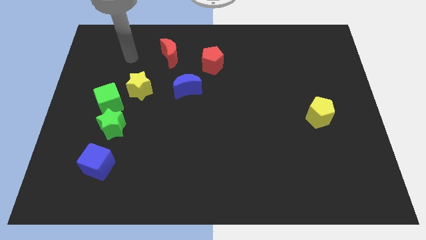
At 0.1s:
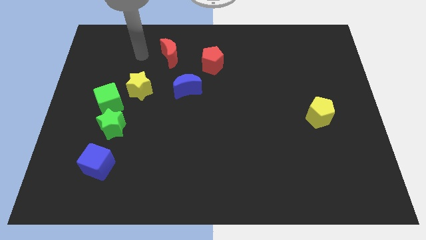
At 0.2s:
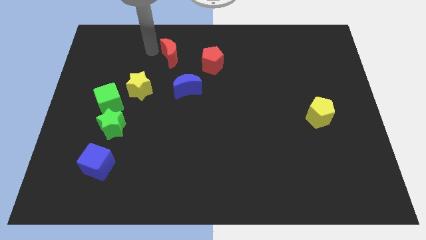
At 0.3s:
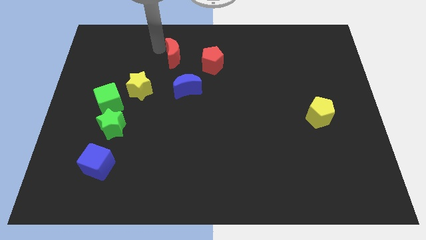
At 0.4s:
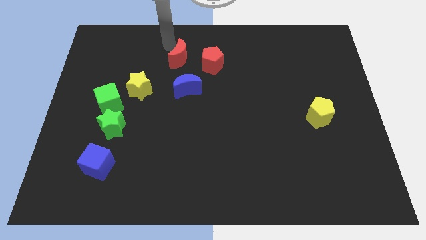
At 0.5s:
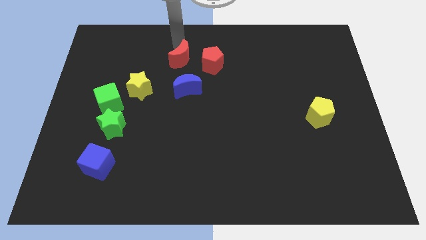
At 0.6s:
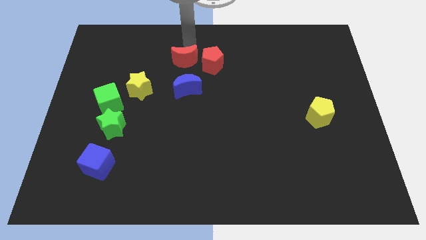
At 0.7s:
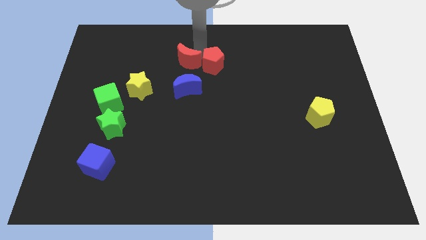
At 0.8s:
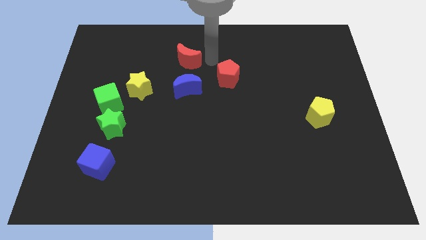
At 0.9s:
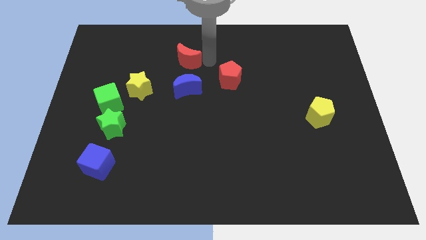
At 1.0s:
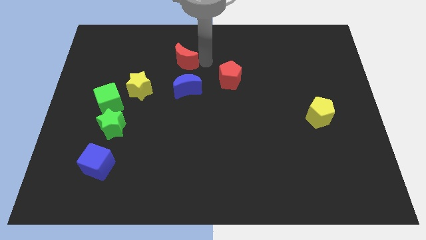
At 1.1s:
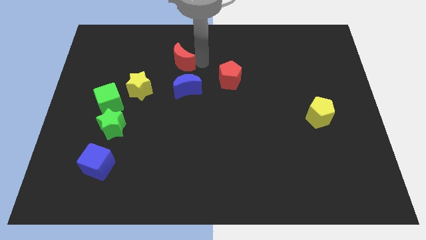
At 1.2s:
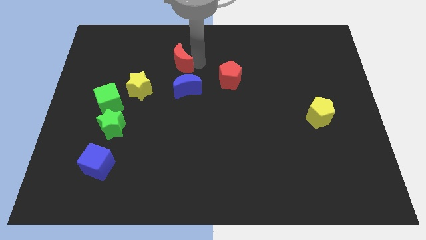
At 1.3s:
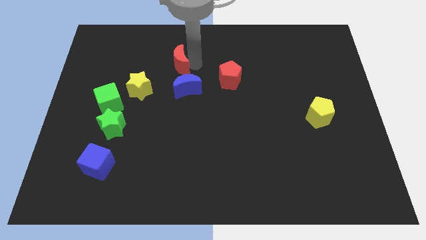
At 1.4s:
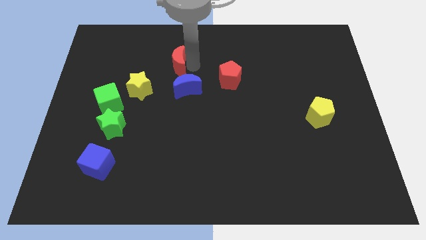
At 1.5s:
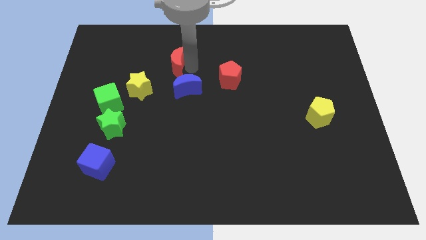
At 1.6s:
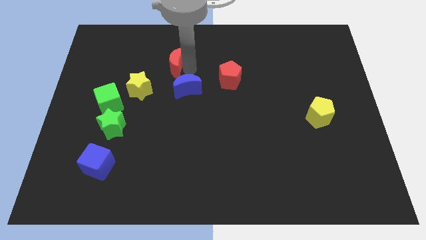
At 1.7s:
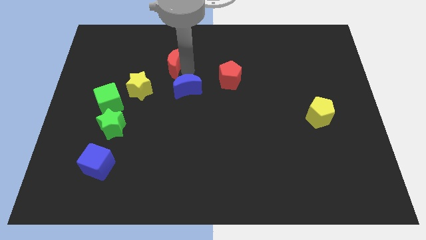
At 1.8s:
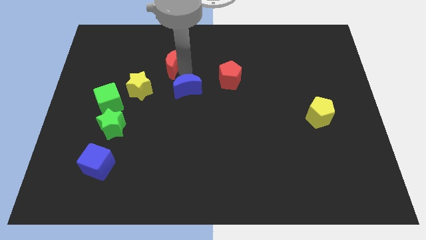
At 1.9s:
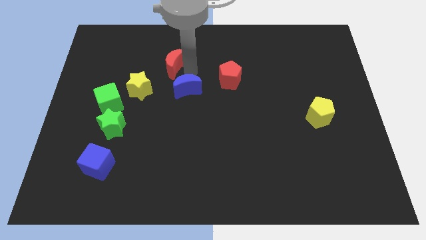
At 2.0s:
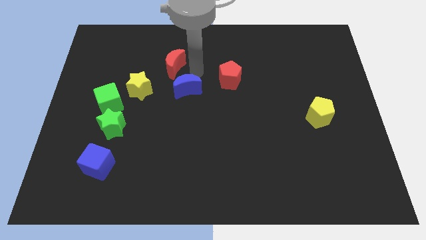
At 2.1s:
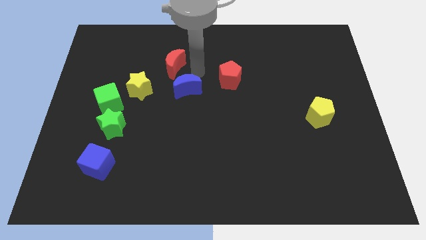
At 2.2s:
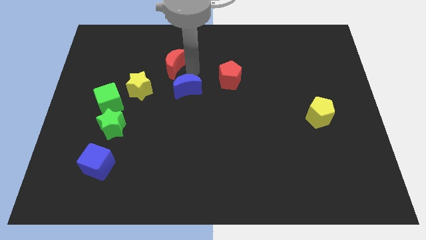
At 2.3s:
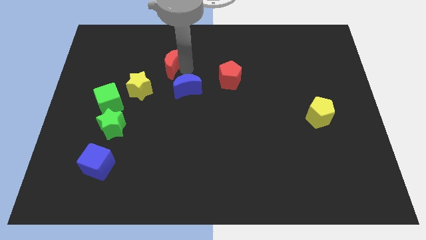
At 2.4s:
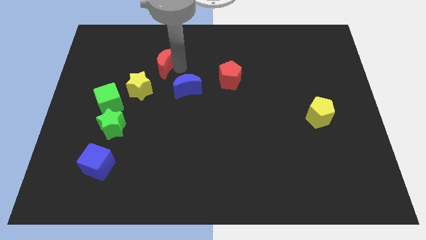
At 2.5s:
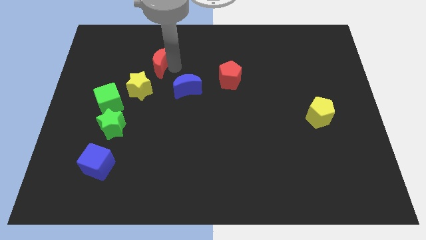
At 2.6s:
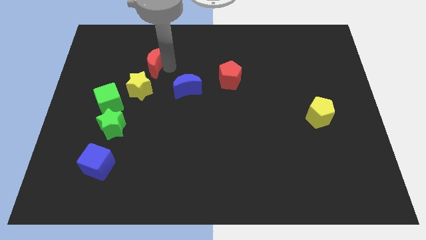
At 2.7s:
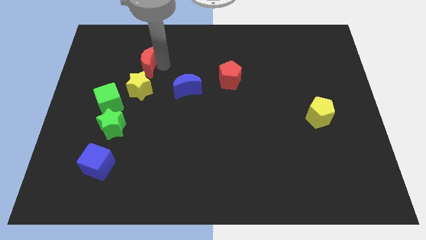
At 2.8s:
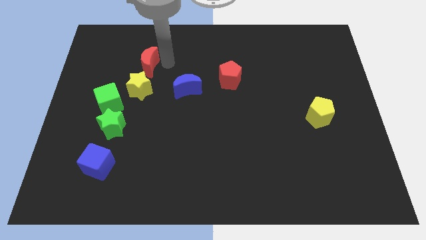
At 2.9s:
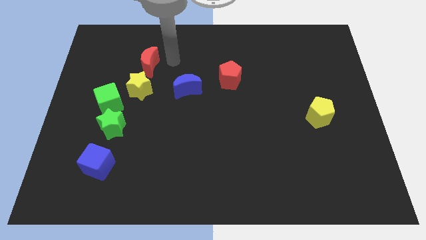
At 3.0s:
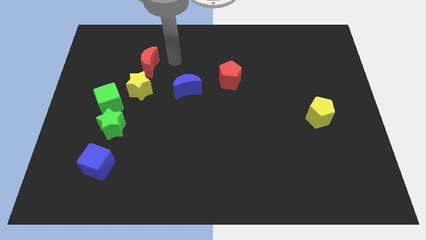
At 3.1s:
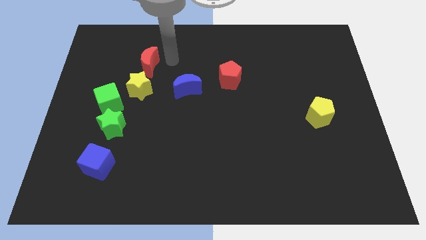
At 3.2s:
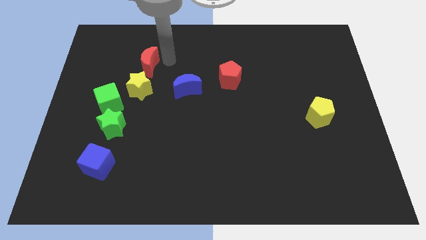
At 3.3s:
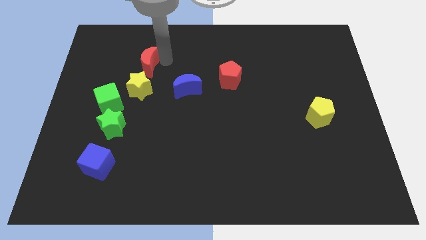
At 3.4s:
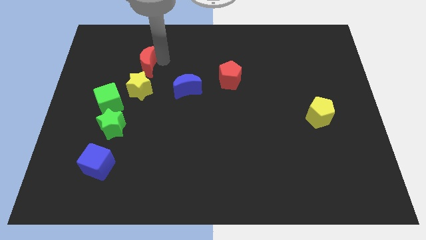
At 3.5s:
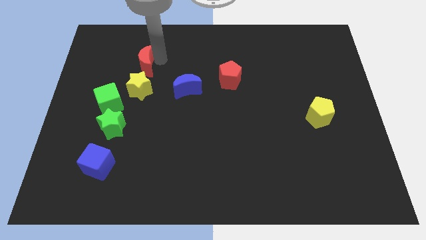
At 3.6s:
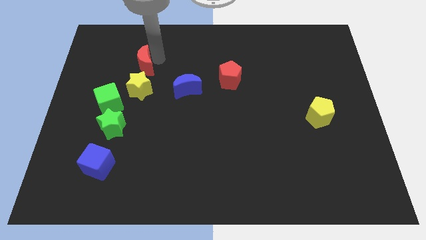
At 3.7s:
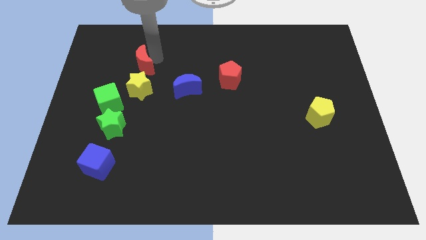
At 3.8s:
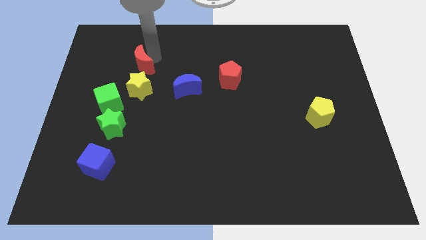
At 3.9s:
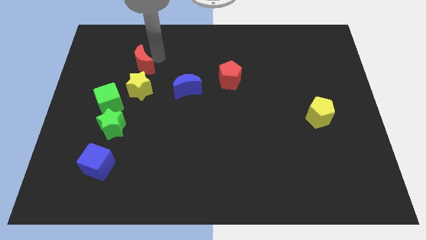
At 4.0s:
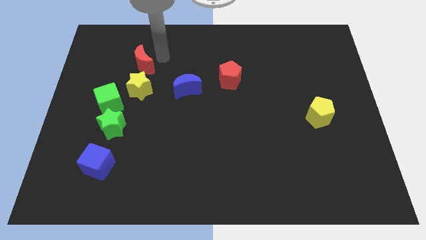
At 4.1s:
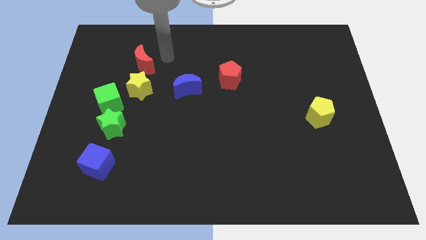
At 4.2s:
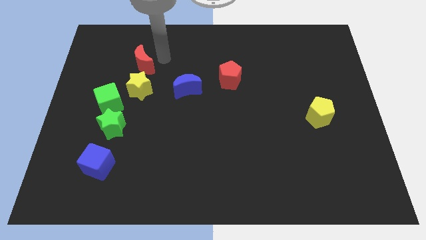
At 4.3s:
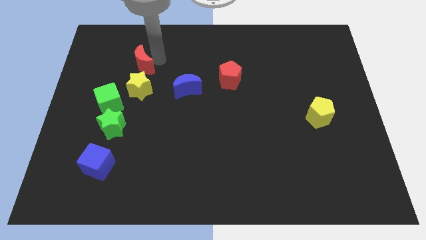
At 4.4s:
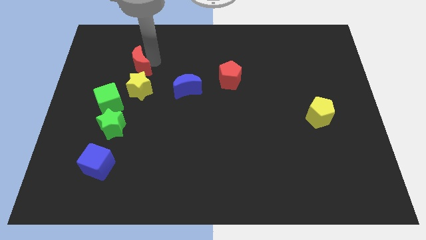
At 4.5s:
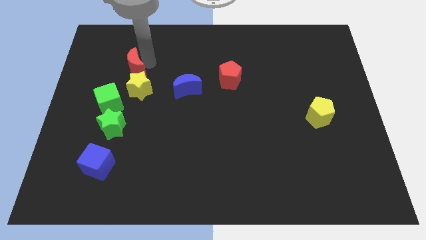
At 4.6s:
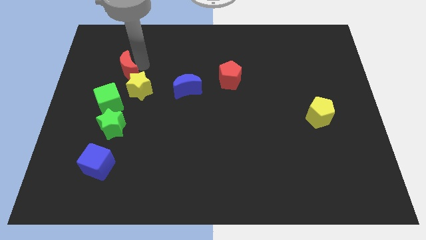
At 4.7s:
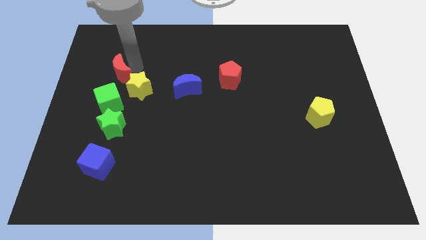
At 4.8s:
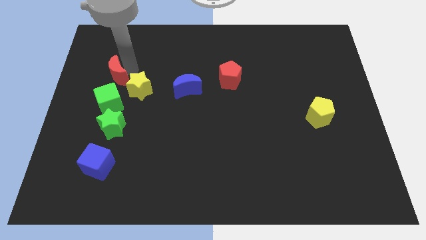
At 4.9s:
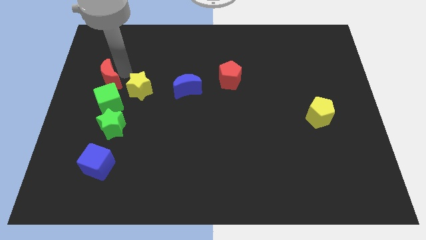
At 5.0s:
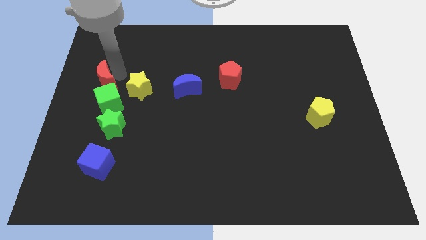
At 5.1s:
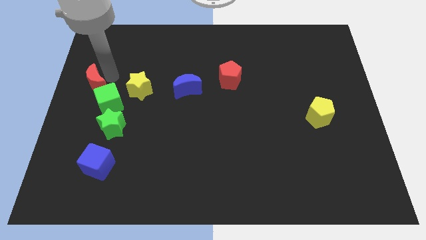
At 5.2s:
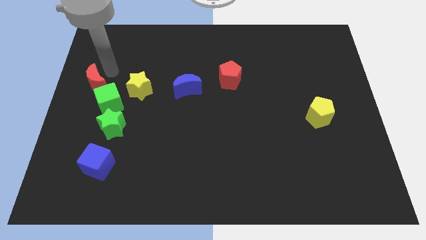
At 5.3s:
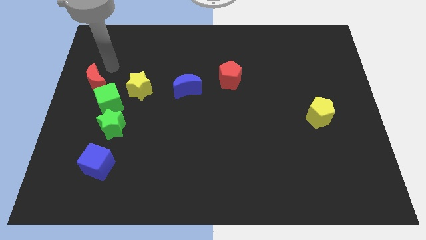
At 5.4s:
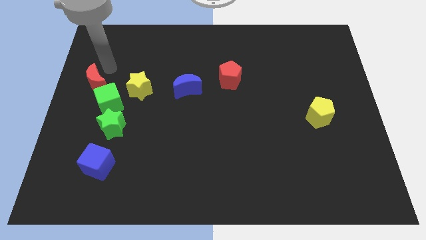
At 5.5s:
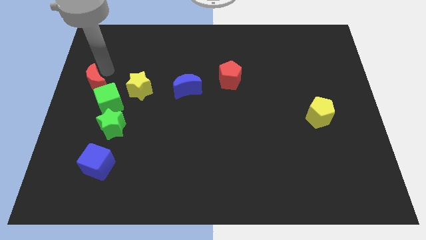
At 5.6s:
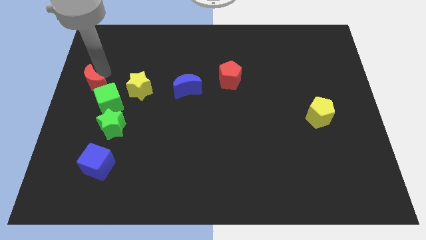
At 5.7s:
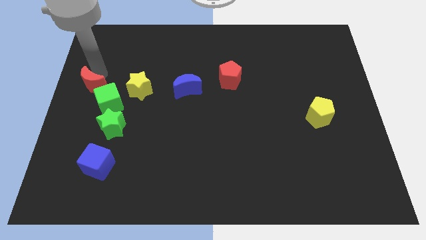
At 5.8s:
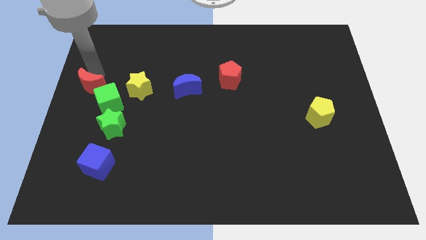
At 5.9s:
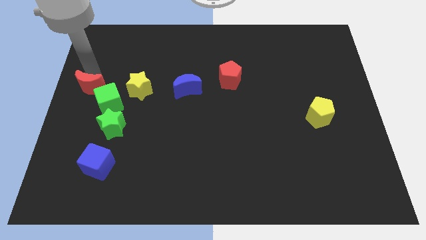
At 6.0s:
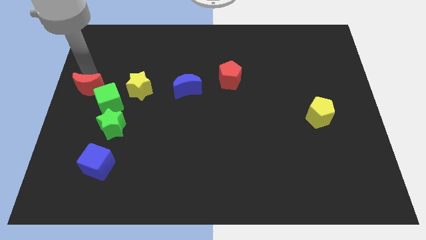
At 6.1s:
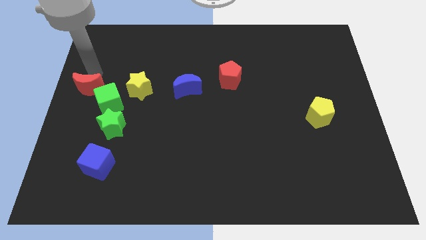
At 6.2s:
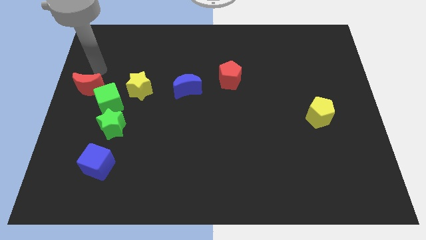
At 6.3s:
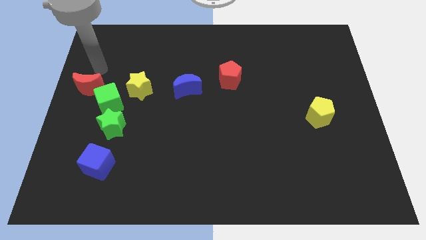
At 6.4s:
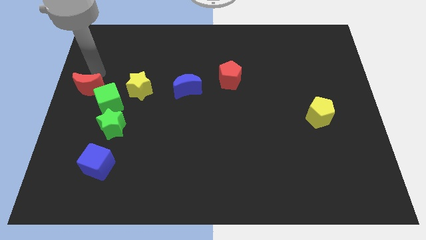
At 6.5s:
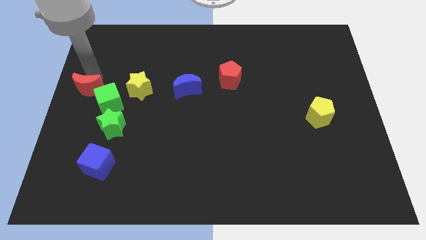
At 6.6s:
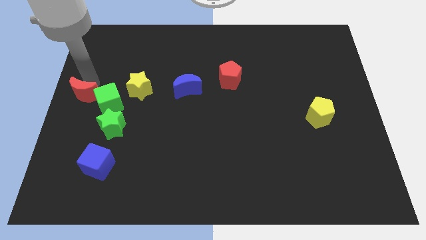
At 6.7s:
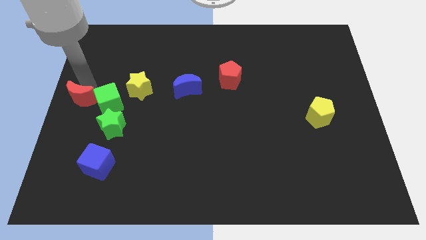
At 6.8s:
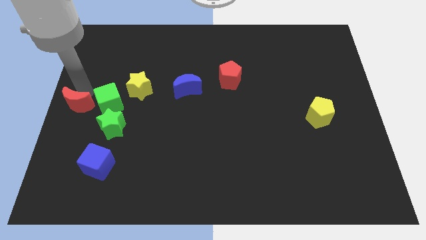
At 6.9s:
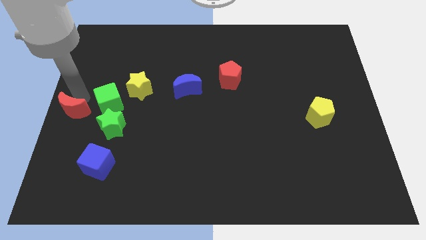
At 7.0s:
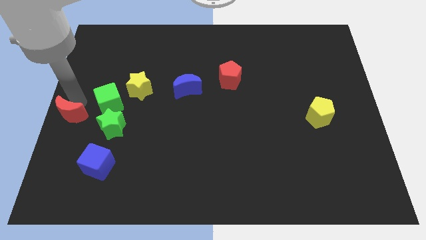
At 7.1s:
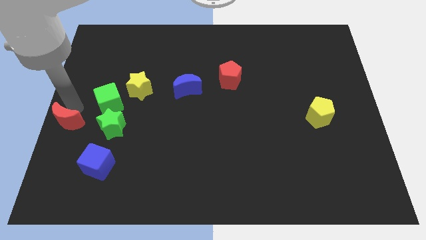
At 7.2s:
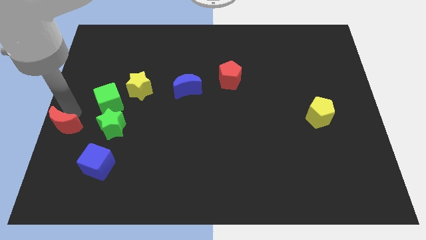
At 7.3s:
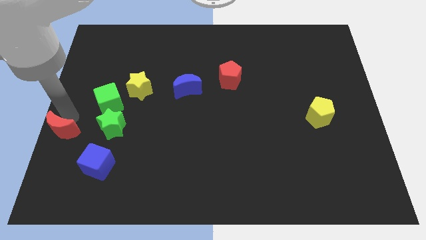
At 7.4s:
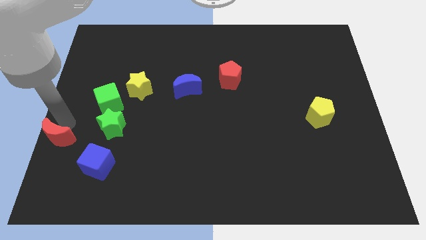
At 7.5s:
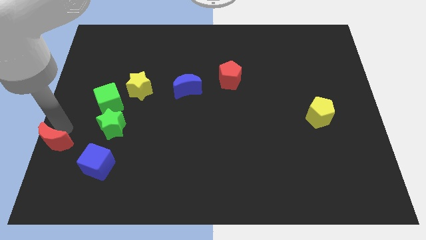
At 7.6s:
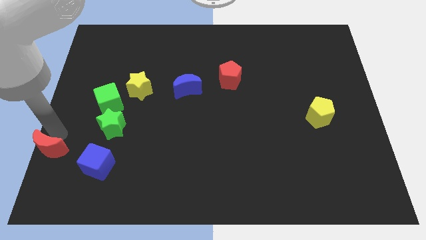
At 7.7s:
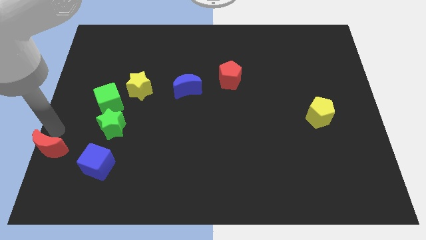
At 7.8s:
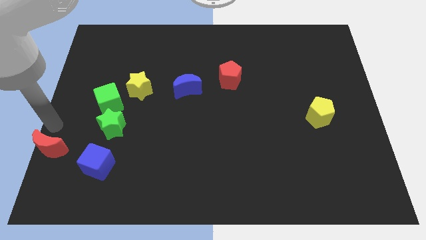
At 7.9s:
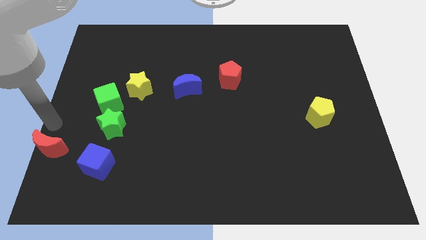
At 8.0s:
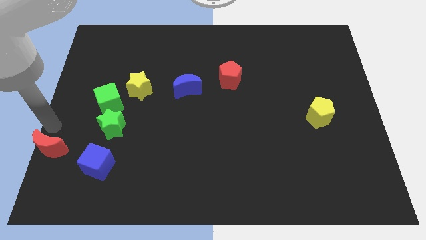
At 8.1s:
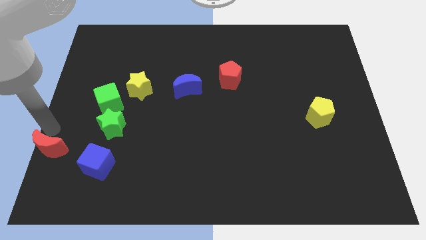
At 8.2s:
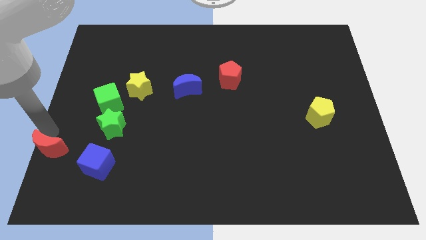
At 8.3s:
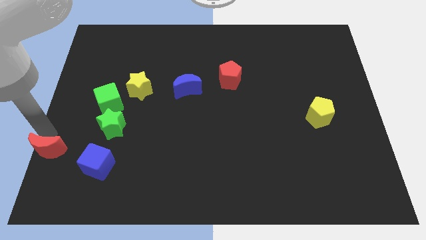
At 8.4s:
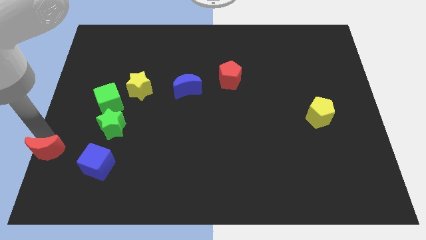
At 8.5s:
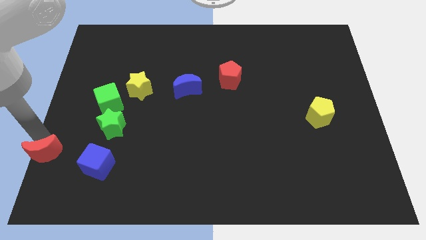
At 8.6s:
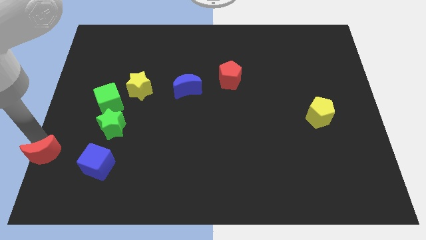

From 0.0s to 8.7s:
move the red moon to the lower left corner
